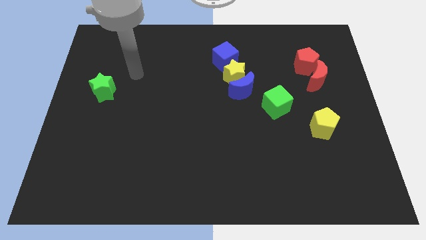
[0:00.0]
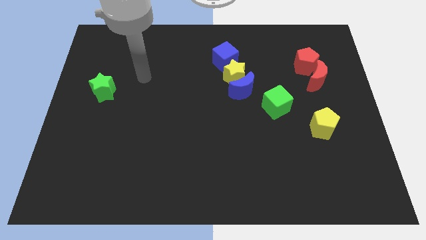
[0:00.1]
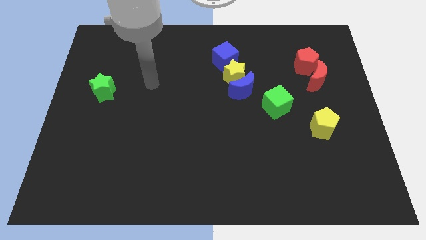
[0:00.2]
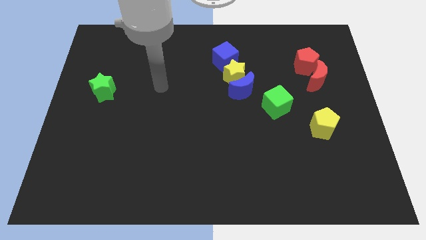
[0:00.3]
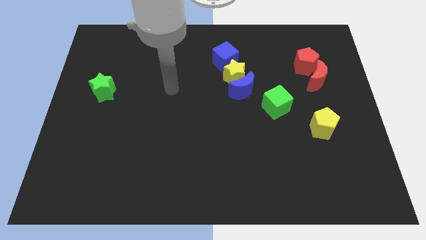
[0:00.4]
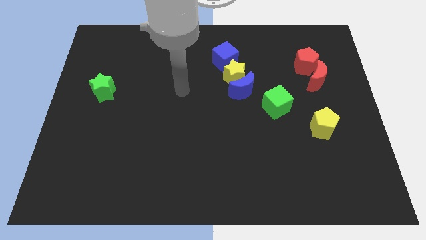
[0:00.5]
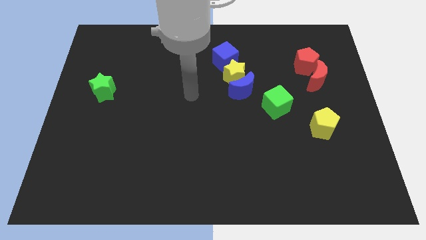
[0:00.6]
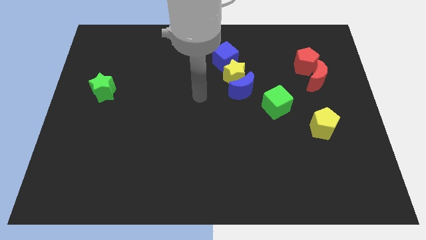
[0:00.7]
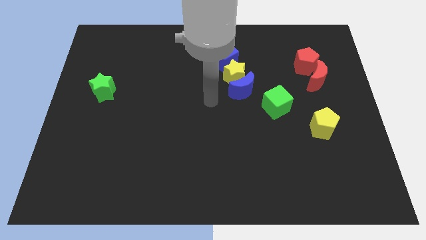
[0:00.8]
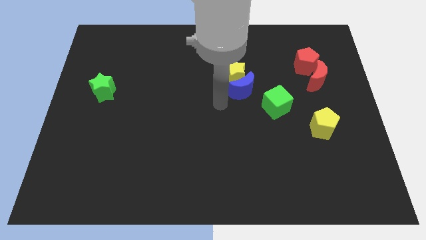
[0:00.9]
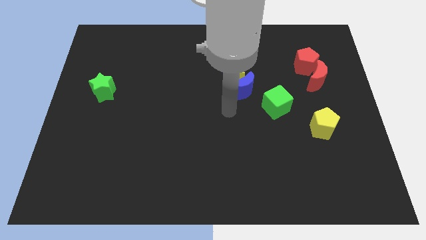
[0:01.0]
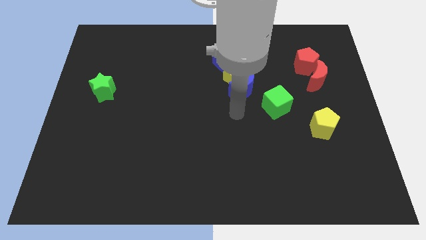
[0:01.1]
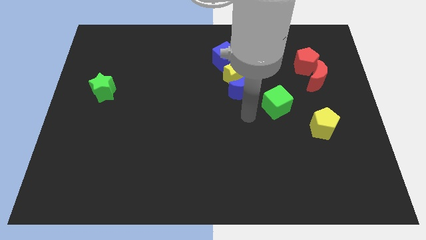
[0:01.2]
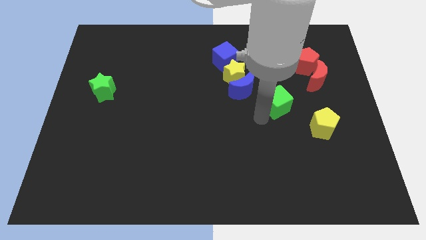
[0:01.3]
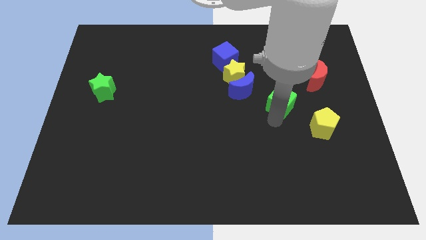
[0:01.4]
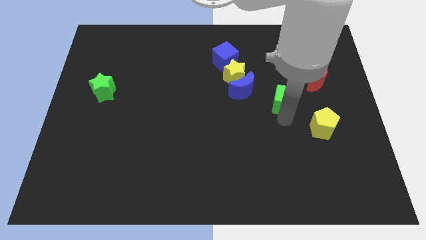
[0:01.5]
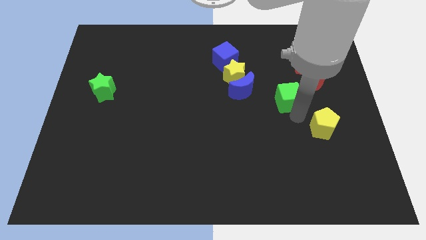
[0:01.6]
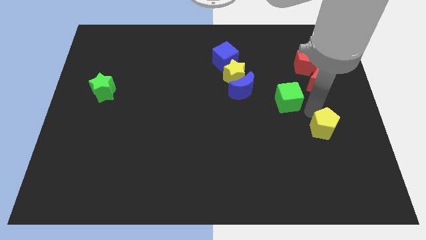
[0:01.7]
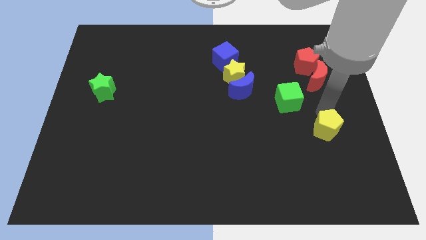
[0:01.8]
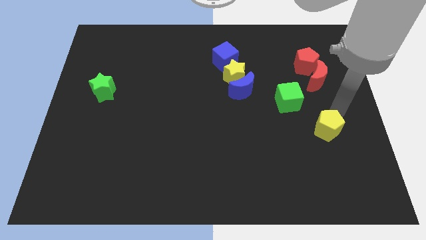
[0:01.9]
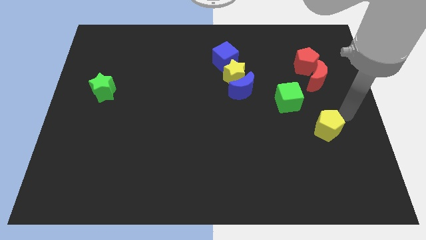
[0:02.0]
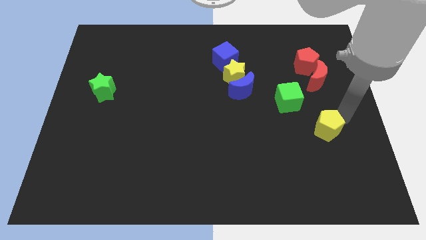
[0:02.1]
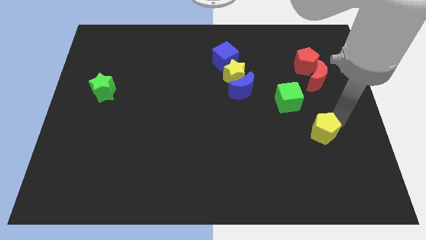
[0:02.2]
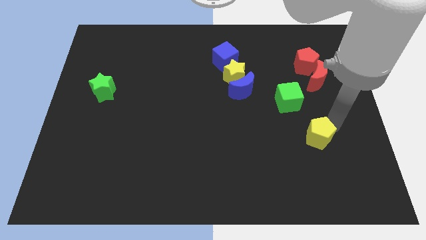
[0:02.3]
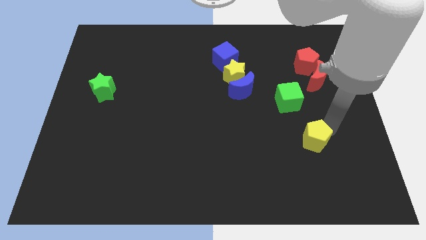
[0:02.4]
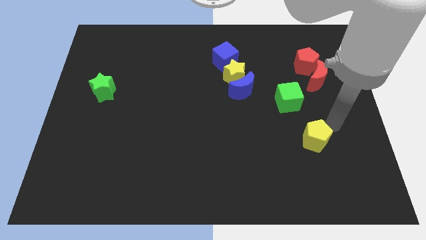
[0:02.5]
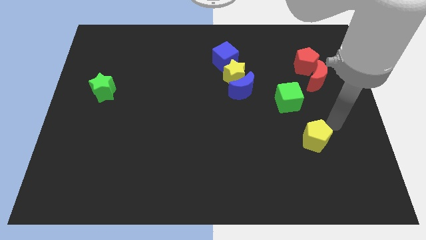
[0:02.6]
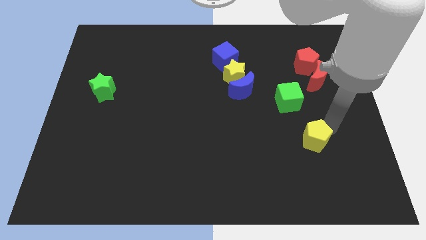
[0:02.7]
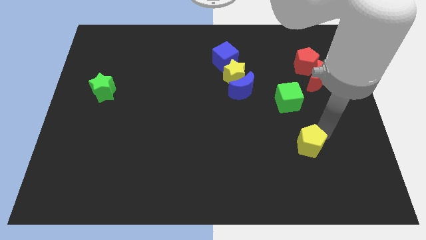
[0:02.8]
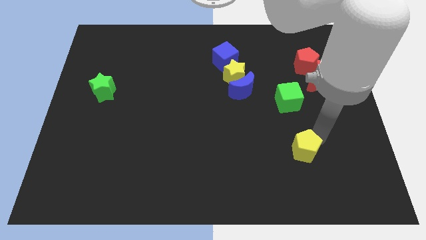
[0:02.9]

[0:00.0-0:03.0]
slide the yellow pentagon down and then to the left a little bit

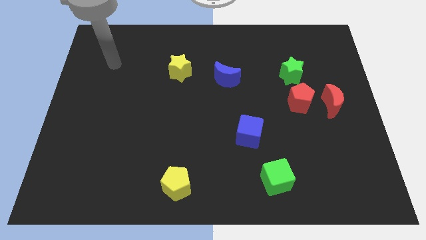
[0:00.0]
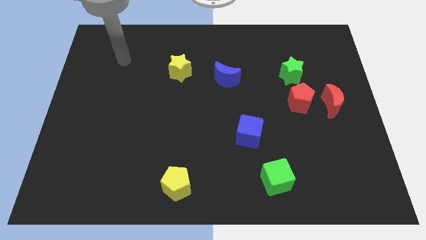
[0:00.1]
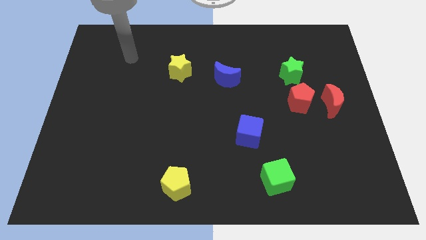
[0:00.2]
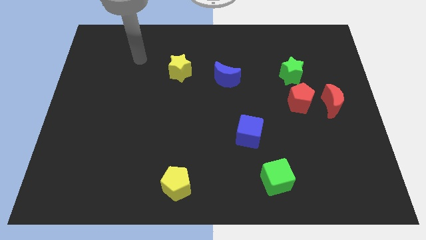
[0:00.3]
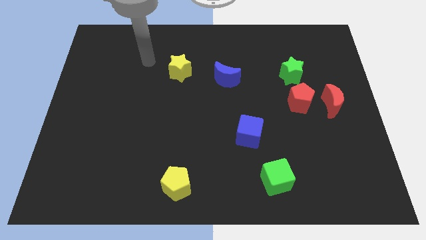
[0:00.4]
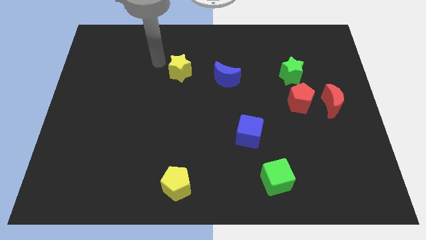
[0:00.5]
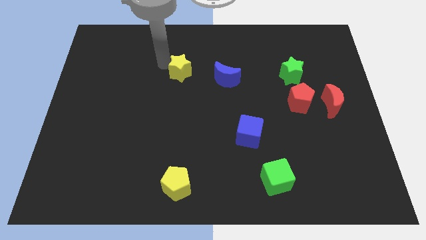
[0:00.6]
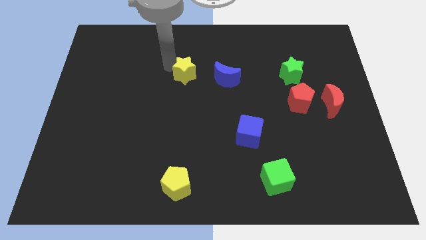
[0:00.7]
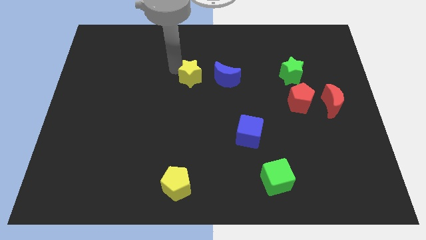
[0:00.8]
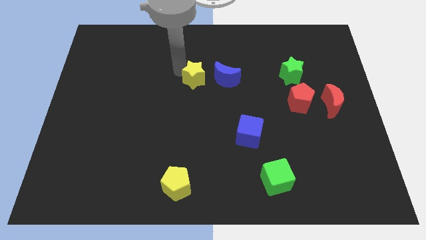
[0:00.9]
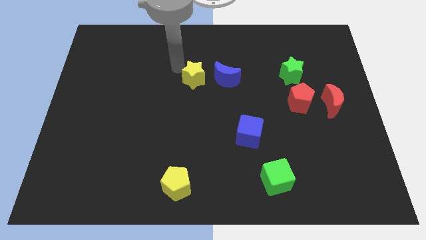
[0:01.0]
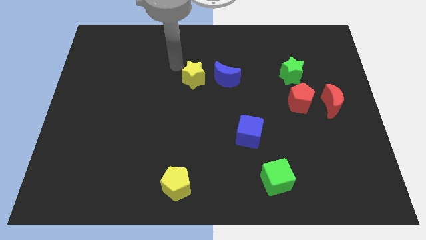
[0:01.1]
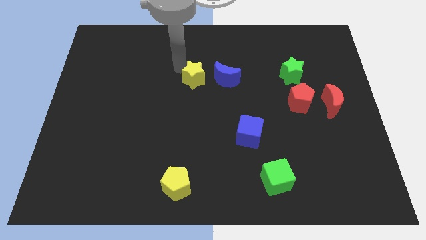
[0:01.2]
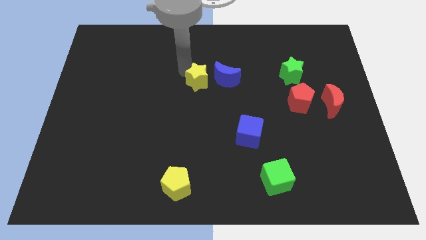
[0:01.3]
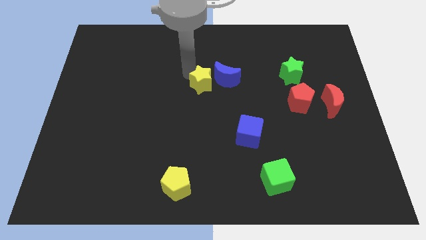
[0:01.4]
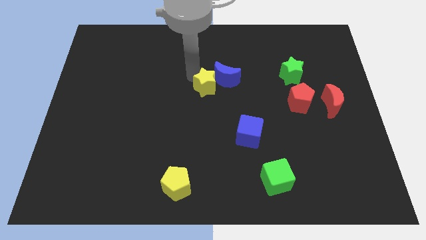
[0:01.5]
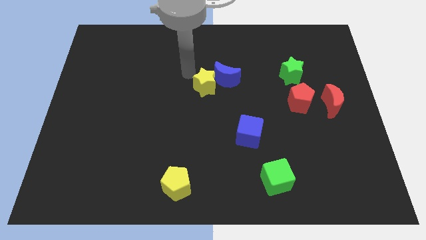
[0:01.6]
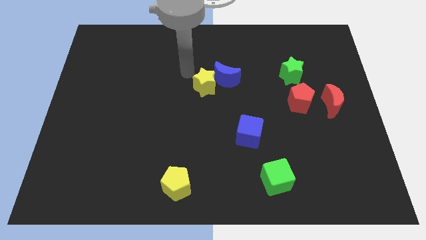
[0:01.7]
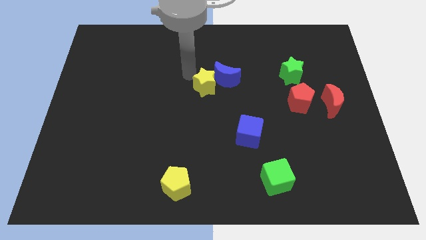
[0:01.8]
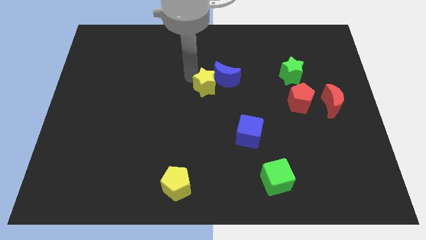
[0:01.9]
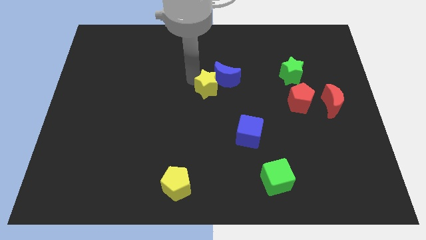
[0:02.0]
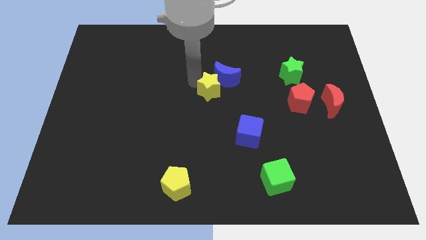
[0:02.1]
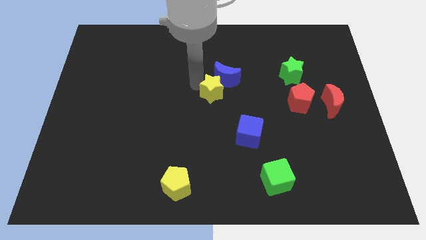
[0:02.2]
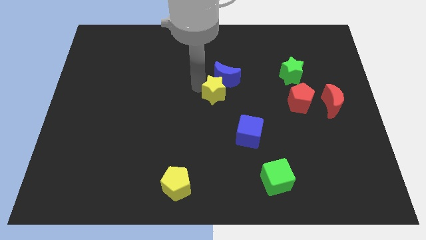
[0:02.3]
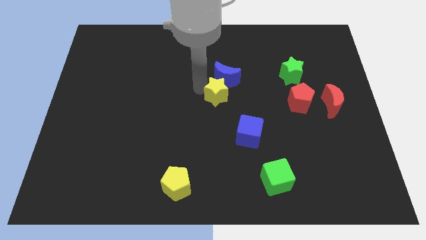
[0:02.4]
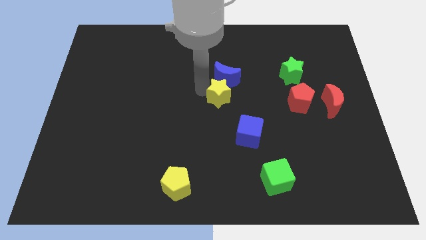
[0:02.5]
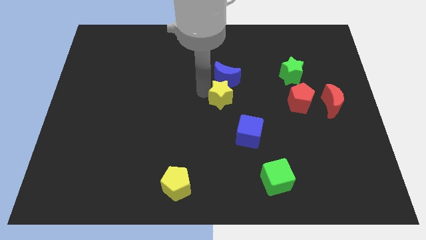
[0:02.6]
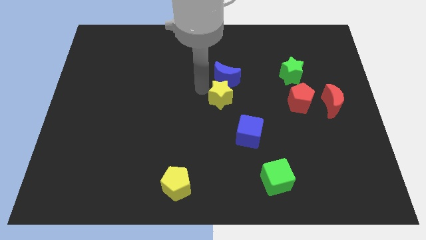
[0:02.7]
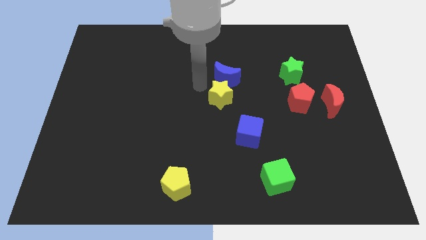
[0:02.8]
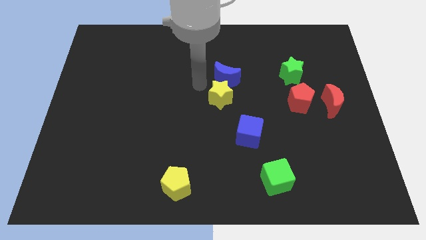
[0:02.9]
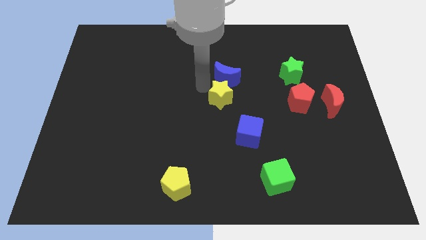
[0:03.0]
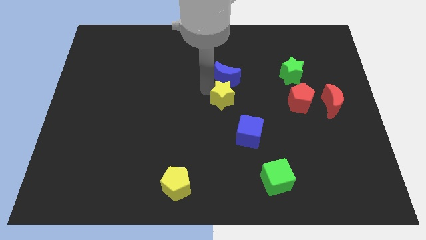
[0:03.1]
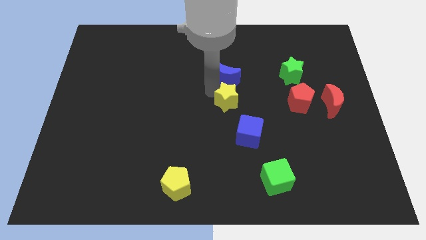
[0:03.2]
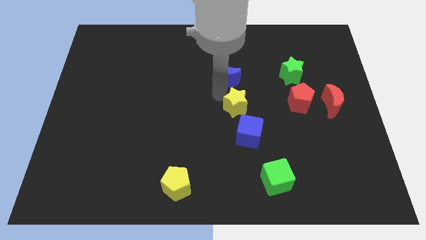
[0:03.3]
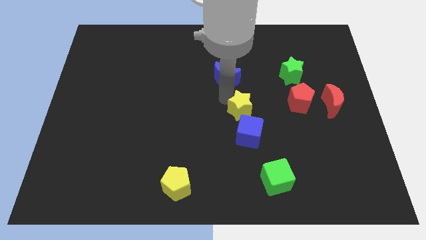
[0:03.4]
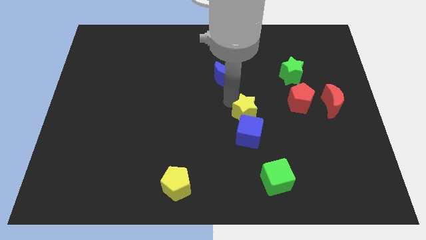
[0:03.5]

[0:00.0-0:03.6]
move the yellow star downwards and right diagonally

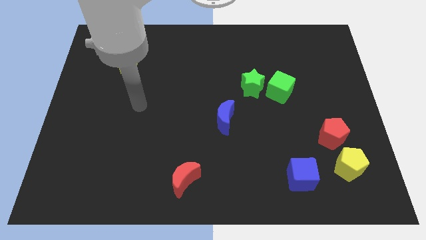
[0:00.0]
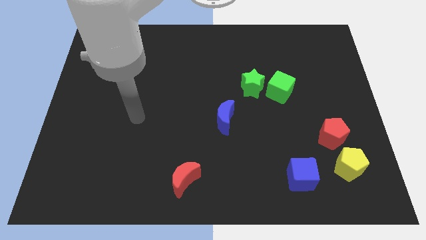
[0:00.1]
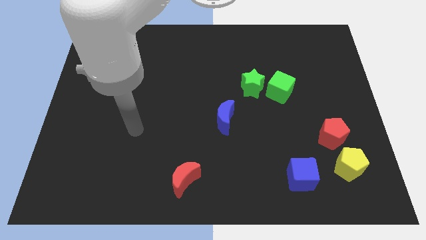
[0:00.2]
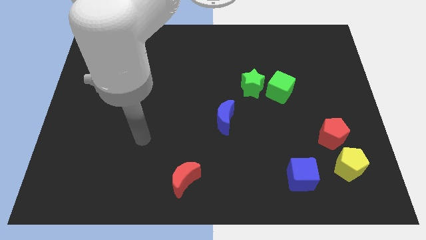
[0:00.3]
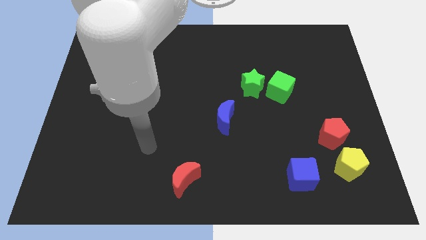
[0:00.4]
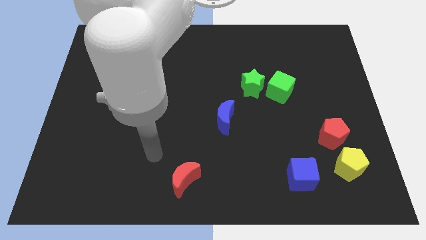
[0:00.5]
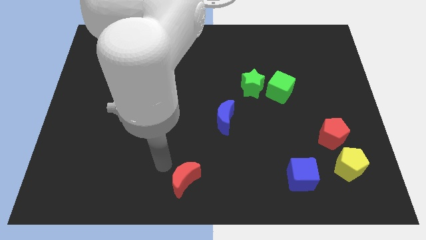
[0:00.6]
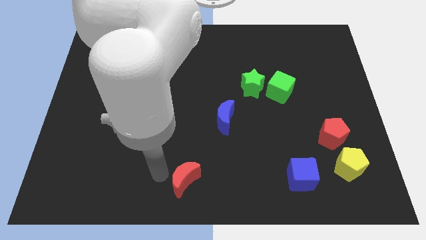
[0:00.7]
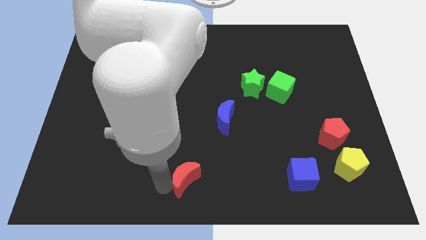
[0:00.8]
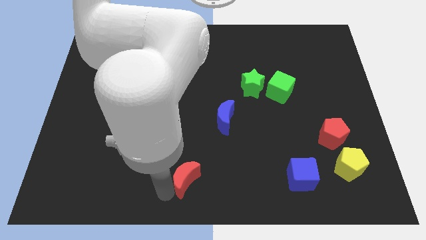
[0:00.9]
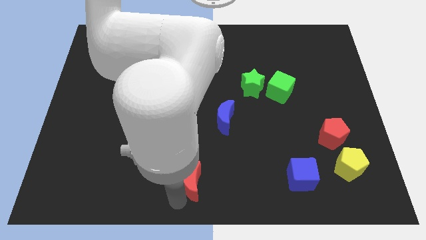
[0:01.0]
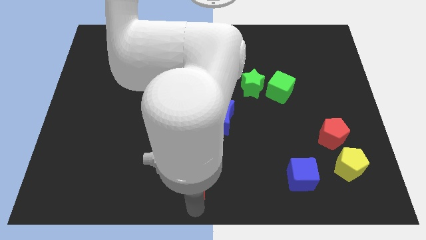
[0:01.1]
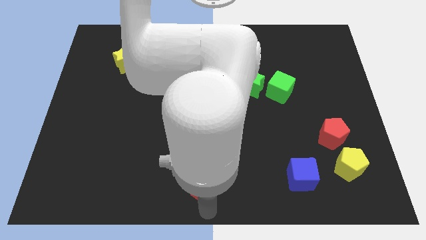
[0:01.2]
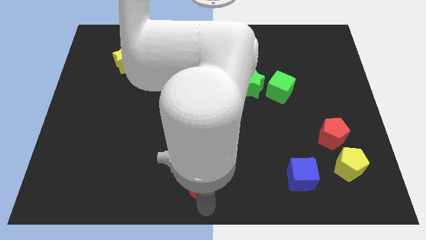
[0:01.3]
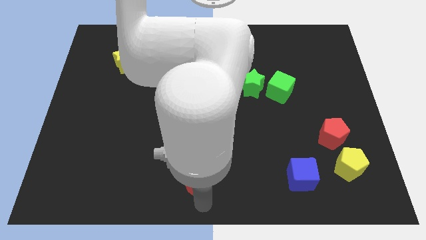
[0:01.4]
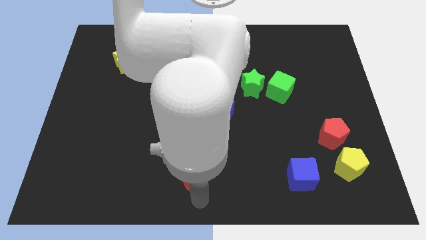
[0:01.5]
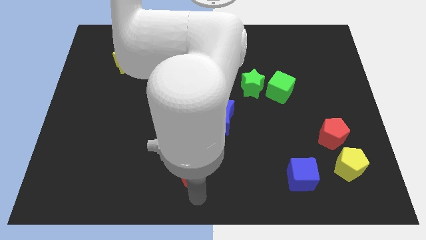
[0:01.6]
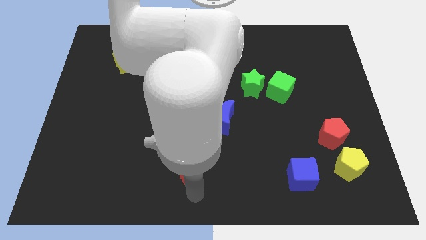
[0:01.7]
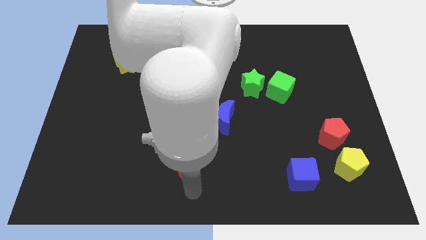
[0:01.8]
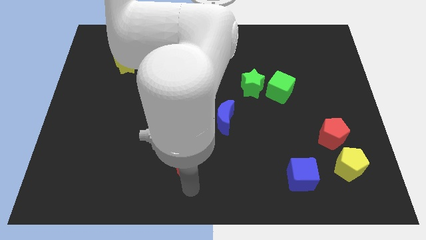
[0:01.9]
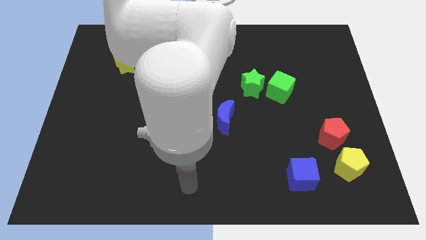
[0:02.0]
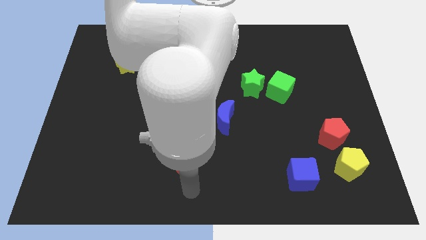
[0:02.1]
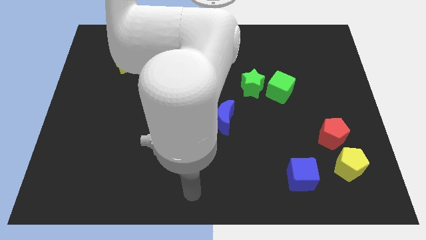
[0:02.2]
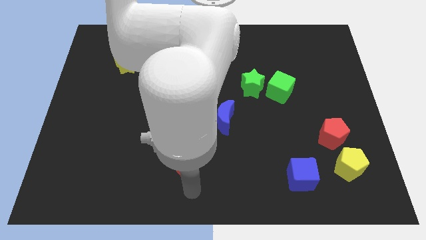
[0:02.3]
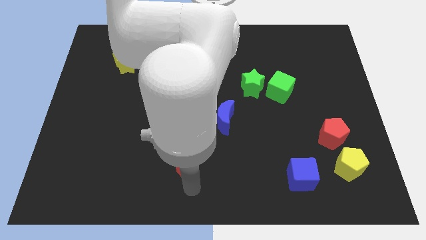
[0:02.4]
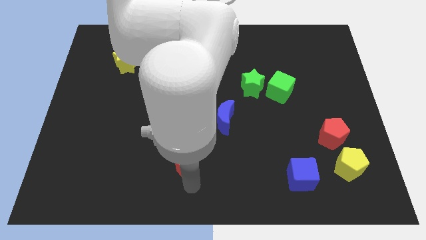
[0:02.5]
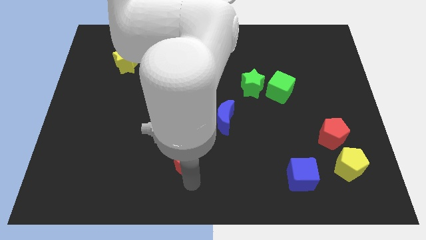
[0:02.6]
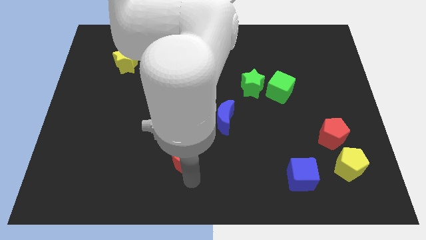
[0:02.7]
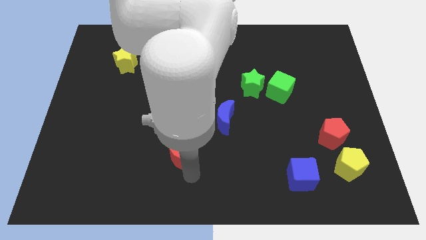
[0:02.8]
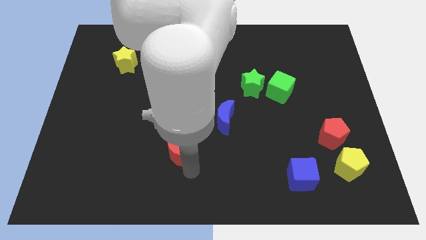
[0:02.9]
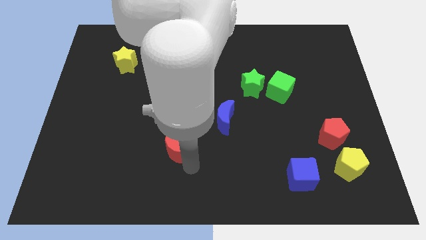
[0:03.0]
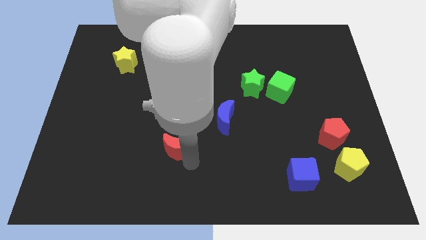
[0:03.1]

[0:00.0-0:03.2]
move the red moon slightly up
